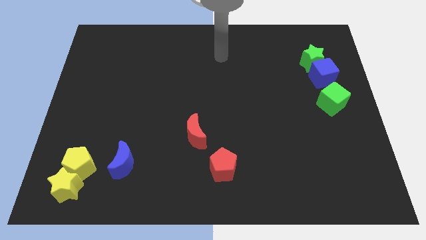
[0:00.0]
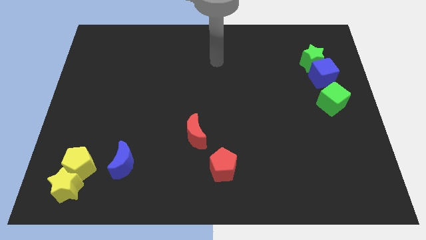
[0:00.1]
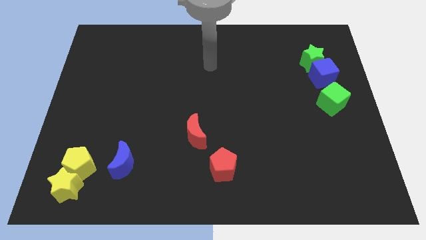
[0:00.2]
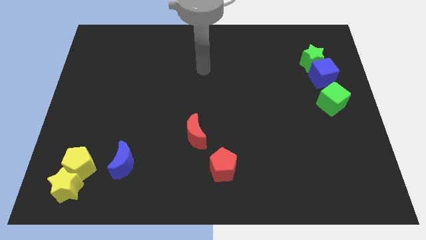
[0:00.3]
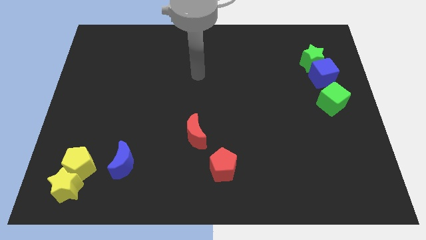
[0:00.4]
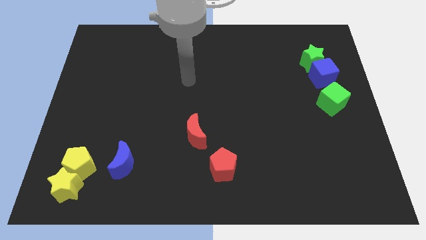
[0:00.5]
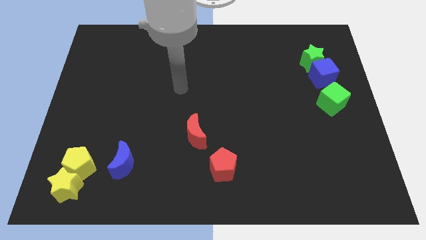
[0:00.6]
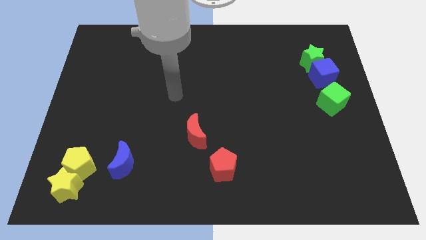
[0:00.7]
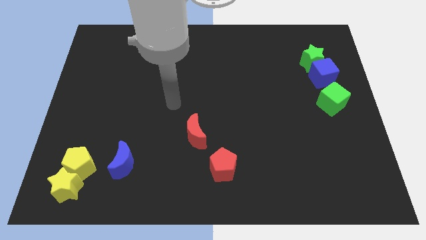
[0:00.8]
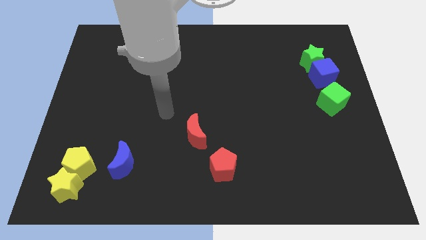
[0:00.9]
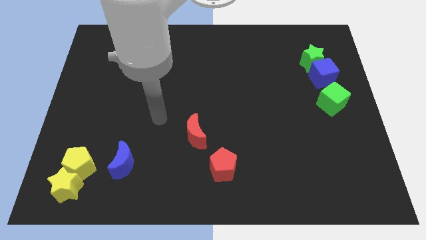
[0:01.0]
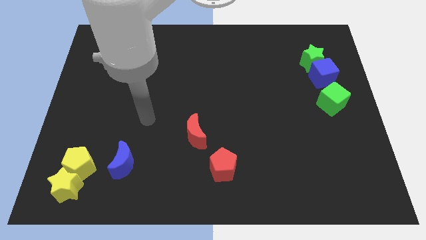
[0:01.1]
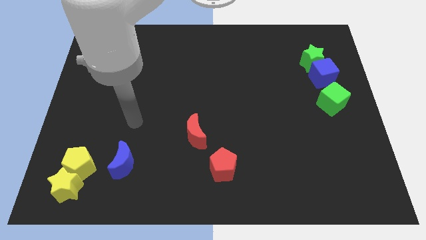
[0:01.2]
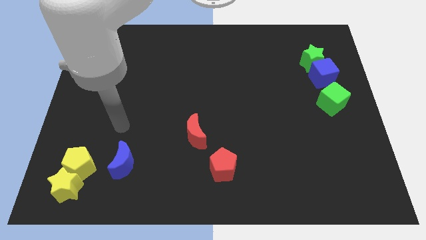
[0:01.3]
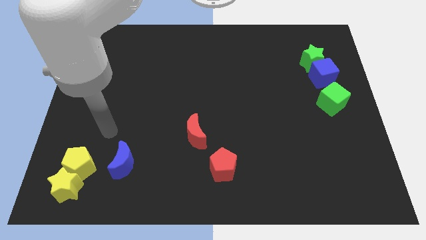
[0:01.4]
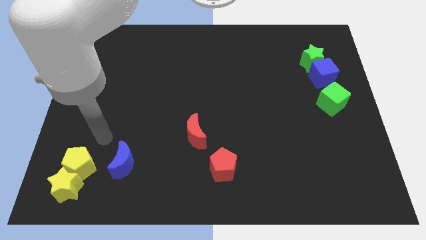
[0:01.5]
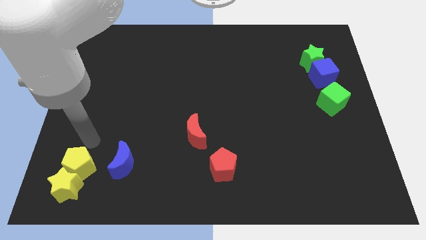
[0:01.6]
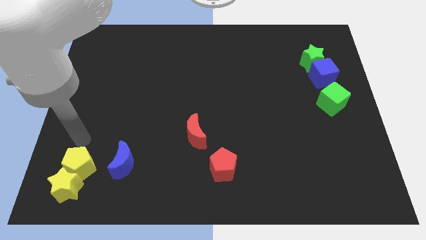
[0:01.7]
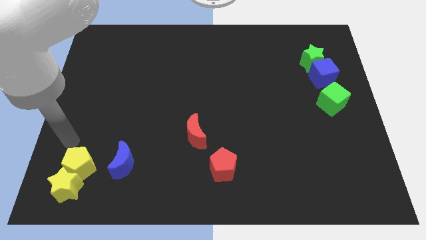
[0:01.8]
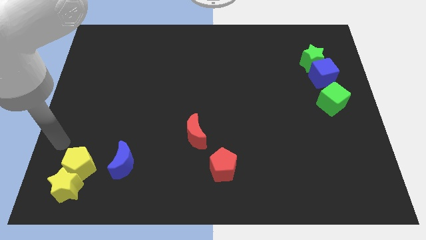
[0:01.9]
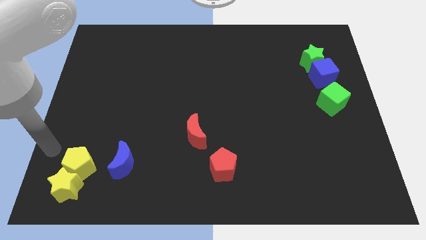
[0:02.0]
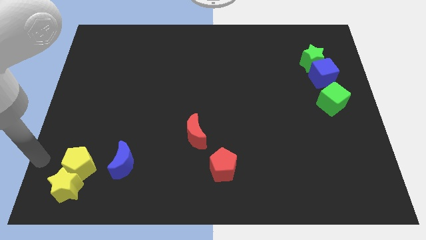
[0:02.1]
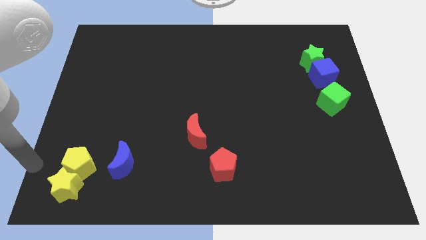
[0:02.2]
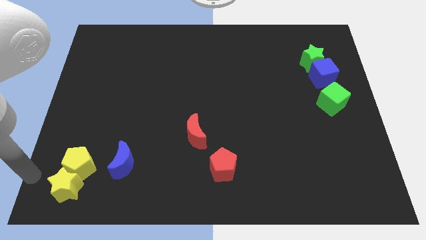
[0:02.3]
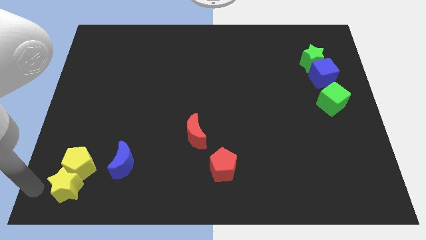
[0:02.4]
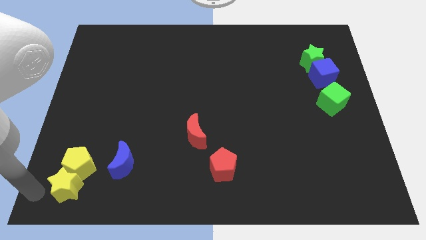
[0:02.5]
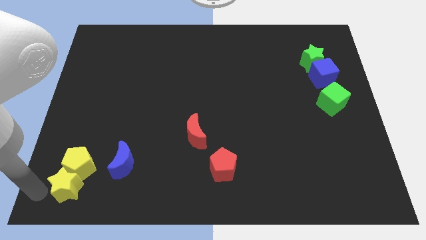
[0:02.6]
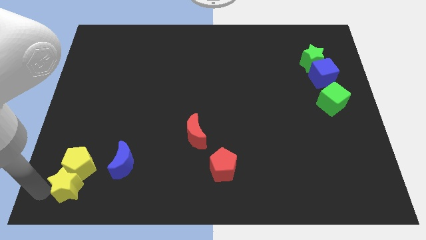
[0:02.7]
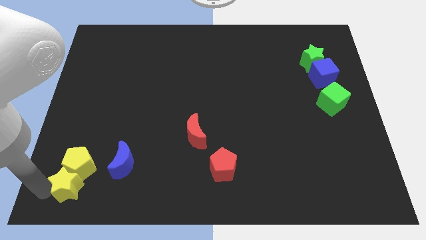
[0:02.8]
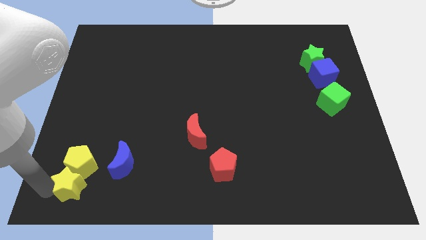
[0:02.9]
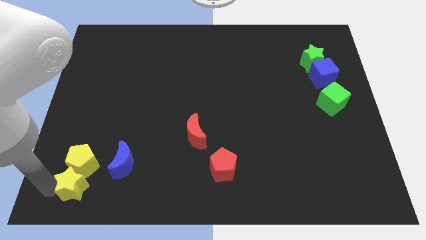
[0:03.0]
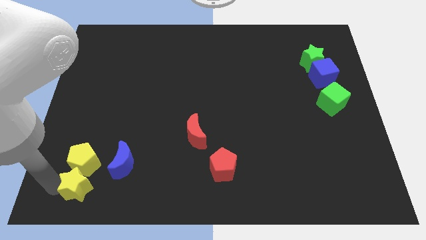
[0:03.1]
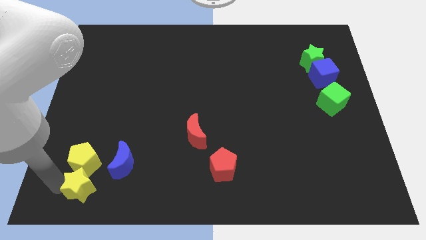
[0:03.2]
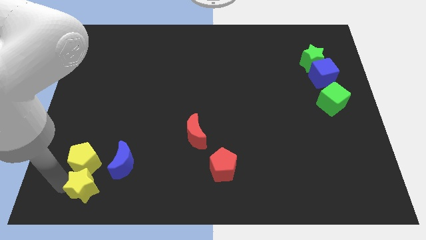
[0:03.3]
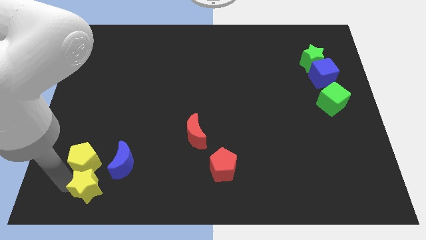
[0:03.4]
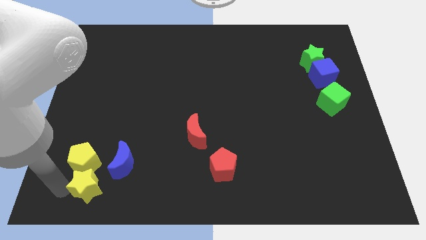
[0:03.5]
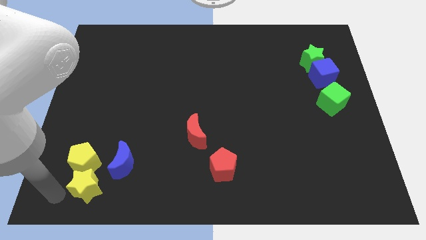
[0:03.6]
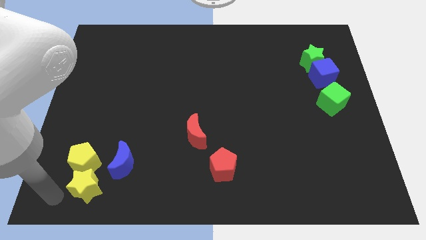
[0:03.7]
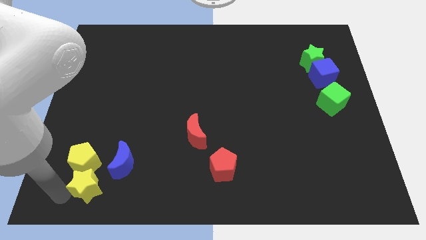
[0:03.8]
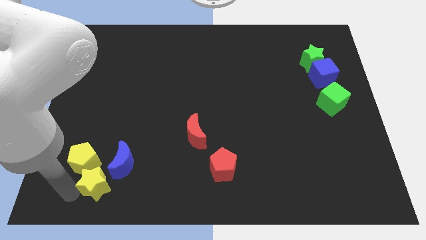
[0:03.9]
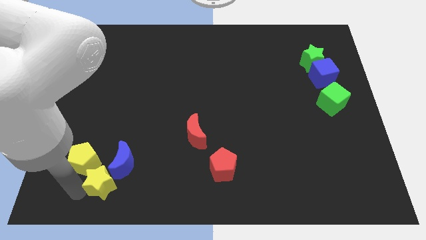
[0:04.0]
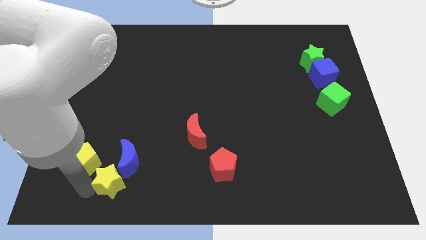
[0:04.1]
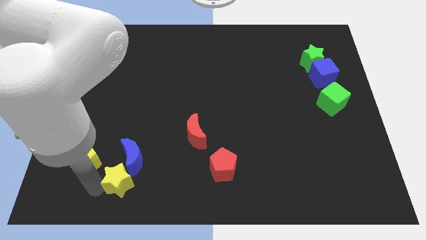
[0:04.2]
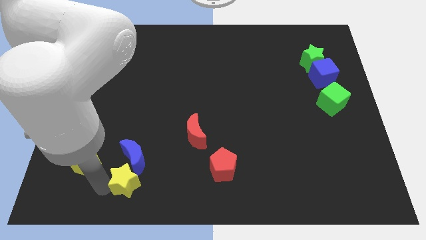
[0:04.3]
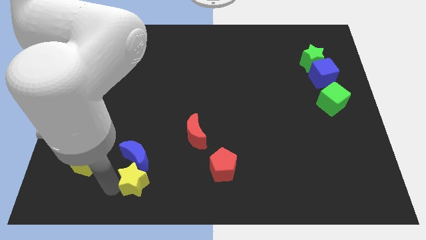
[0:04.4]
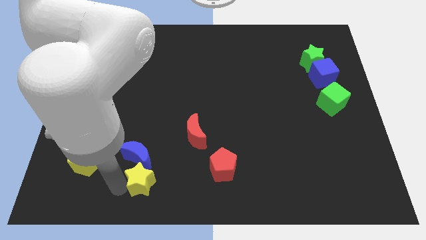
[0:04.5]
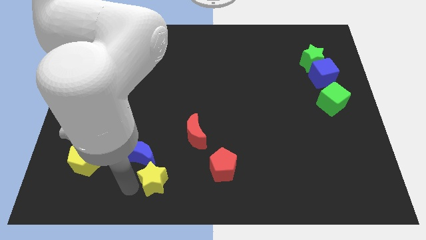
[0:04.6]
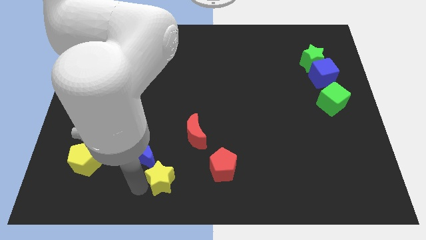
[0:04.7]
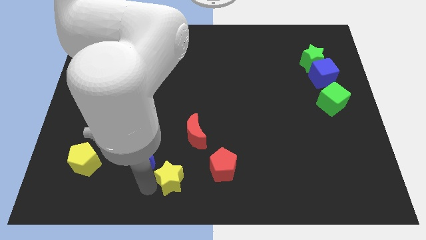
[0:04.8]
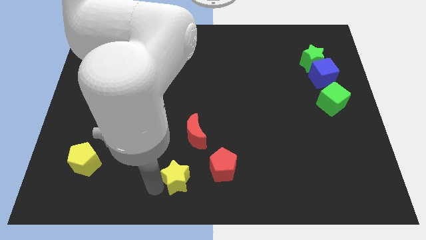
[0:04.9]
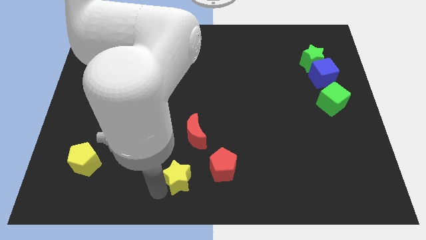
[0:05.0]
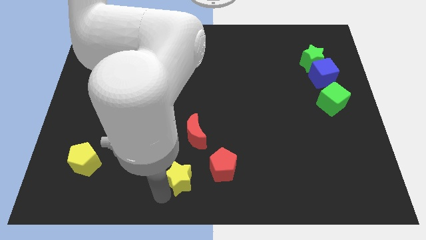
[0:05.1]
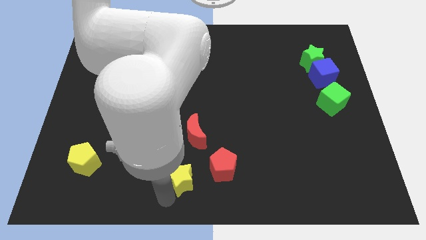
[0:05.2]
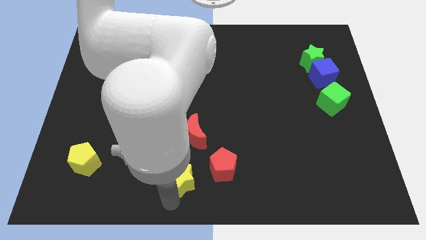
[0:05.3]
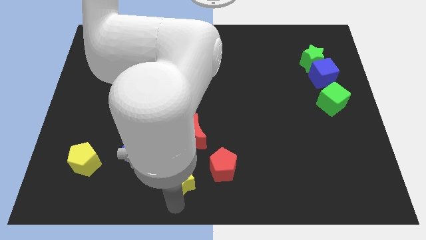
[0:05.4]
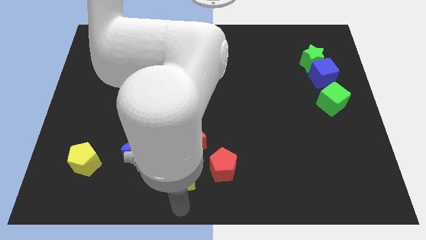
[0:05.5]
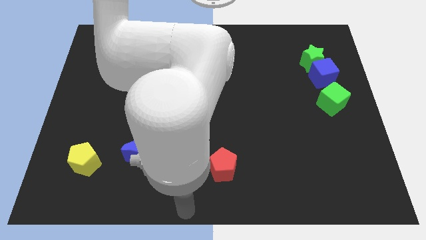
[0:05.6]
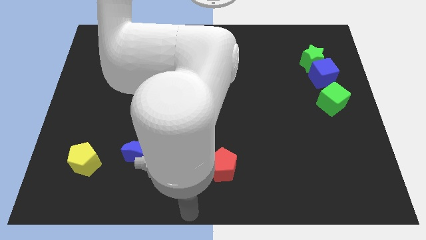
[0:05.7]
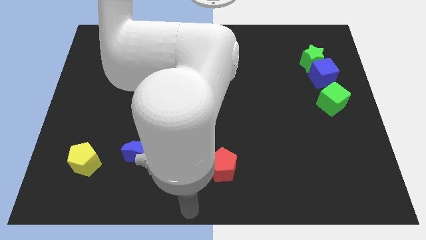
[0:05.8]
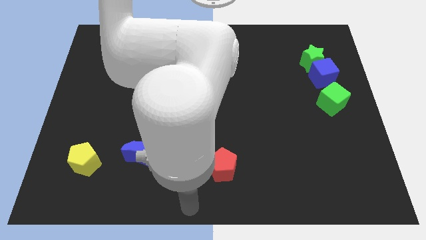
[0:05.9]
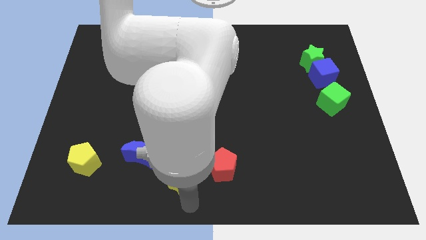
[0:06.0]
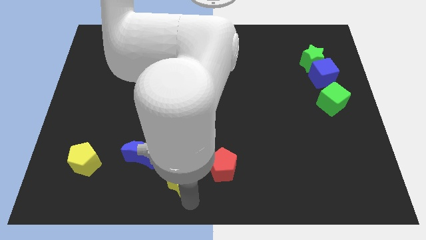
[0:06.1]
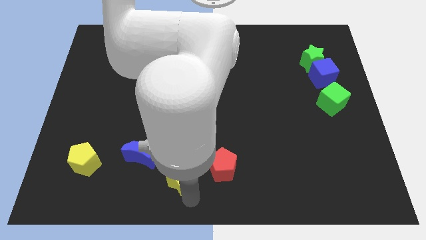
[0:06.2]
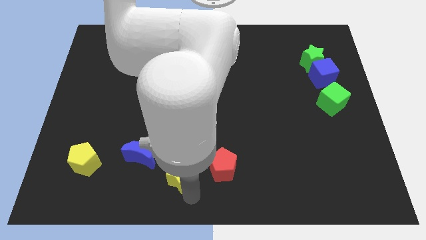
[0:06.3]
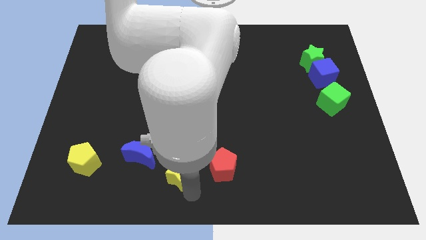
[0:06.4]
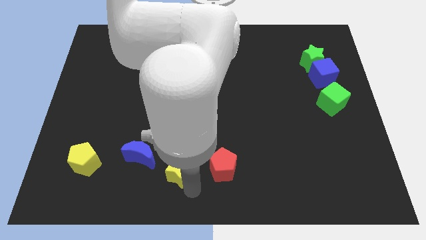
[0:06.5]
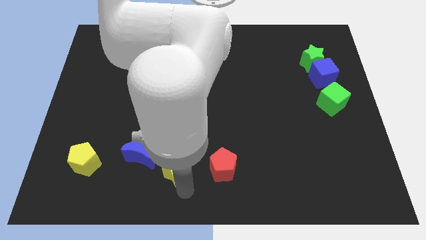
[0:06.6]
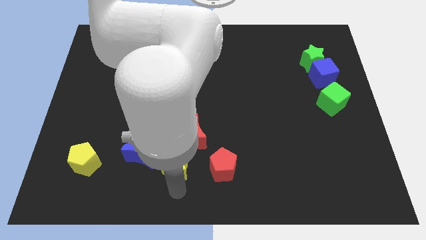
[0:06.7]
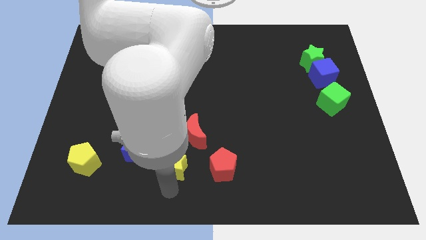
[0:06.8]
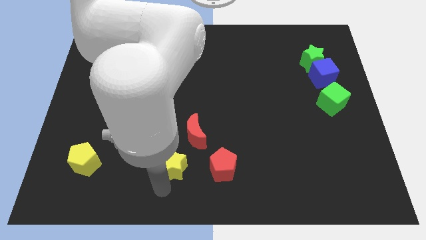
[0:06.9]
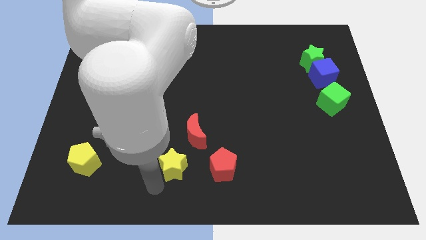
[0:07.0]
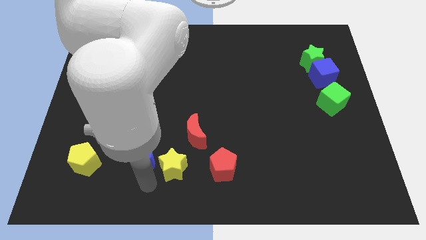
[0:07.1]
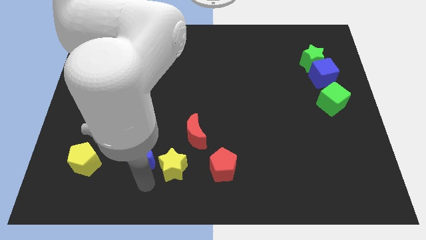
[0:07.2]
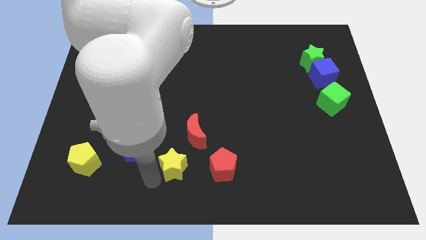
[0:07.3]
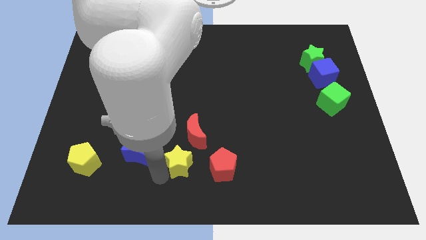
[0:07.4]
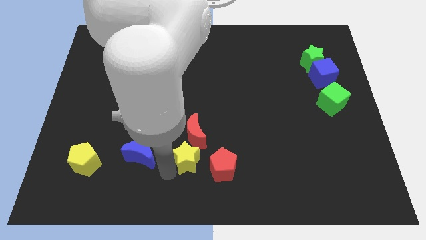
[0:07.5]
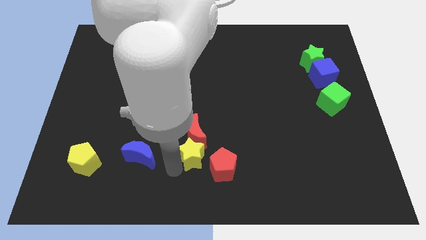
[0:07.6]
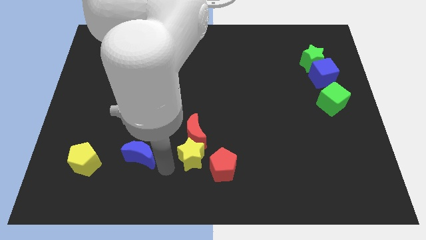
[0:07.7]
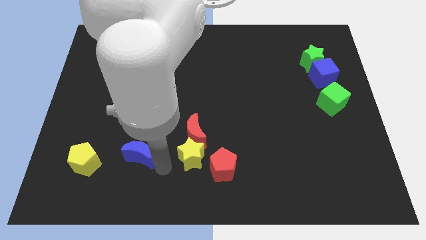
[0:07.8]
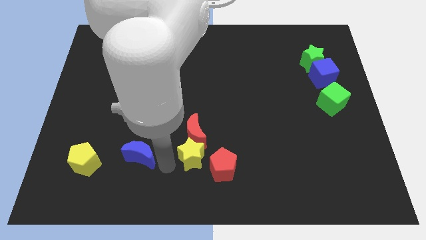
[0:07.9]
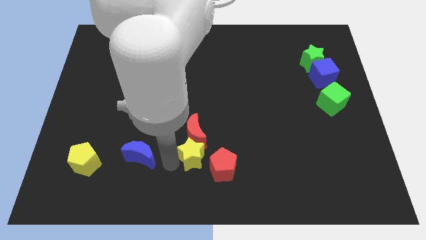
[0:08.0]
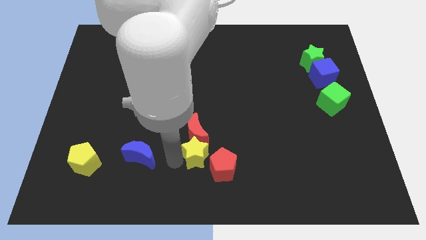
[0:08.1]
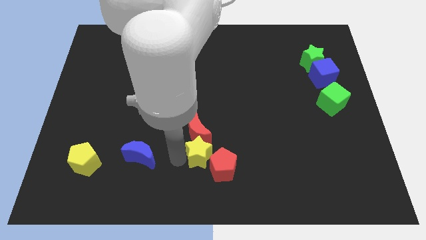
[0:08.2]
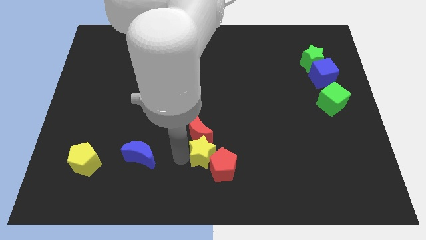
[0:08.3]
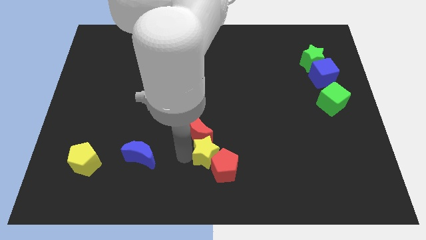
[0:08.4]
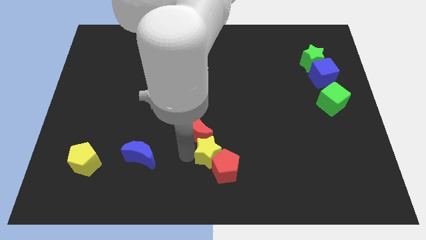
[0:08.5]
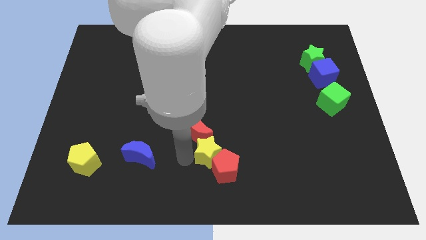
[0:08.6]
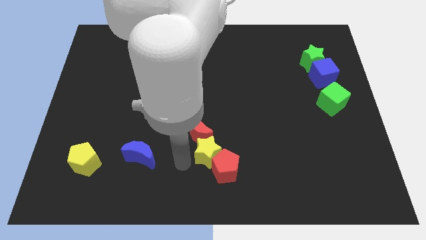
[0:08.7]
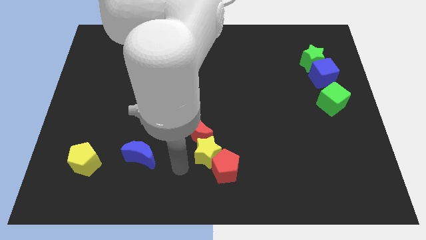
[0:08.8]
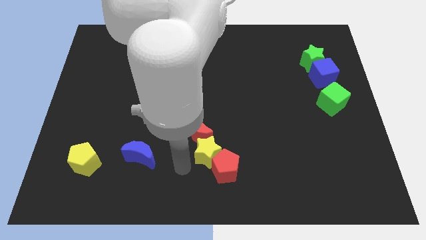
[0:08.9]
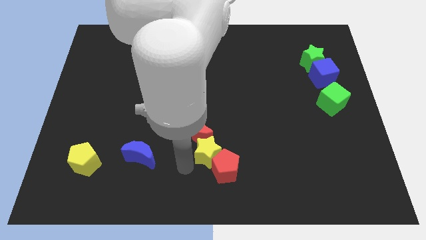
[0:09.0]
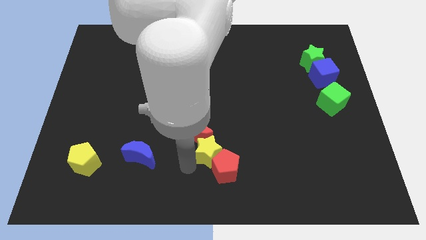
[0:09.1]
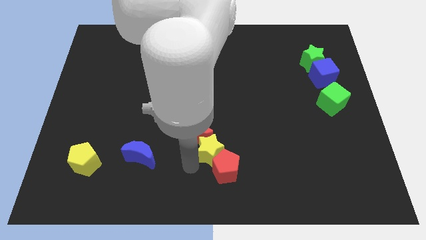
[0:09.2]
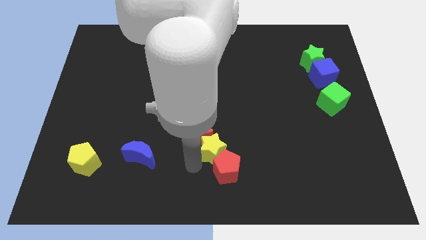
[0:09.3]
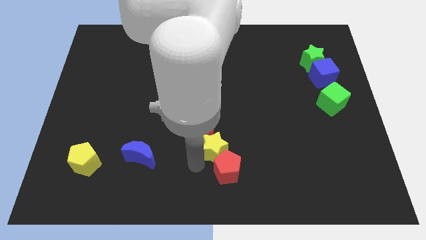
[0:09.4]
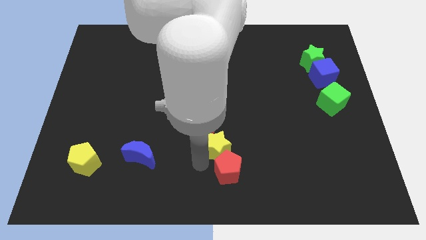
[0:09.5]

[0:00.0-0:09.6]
push the yellow star to the right of the red moon
